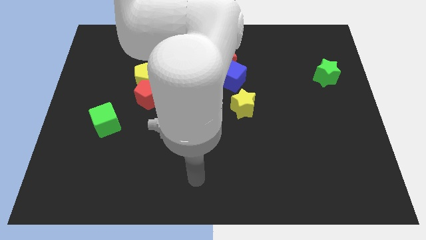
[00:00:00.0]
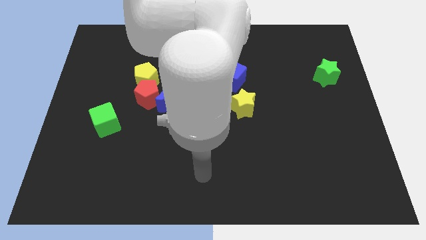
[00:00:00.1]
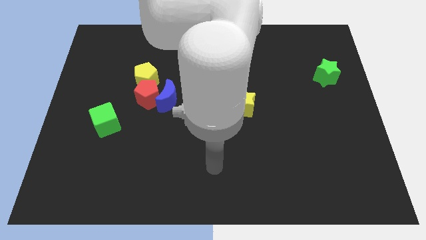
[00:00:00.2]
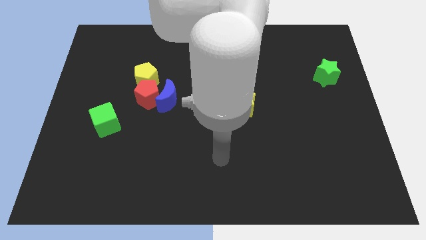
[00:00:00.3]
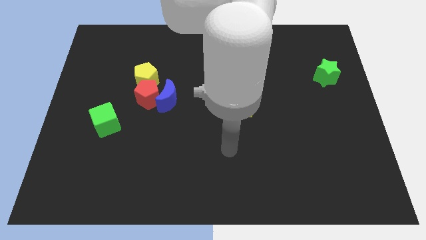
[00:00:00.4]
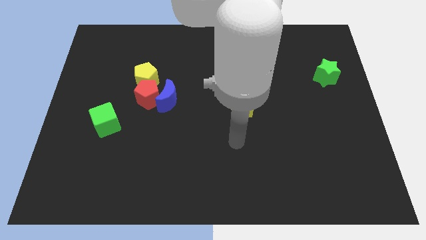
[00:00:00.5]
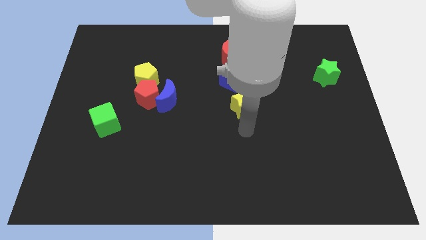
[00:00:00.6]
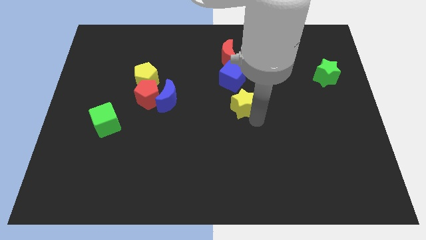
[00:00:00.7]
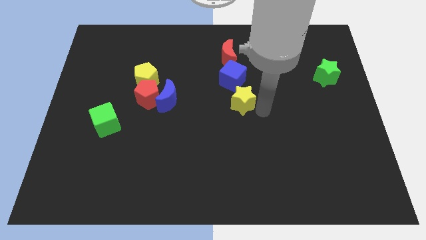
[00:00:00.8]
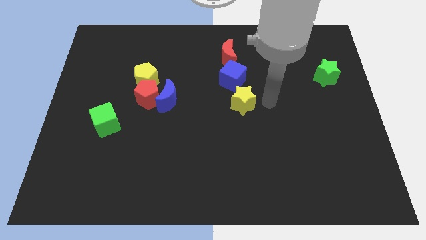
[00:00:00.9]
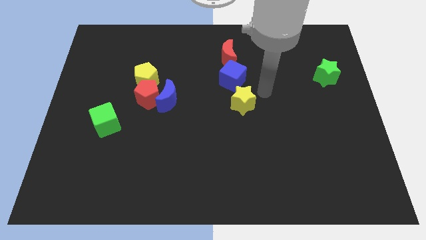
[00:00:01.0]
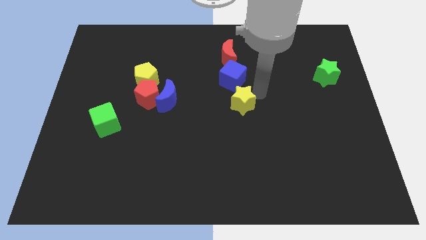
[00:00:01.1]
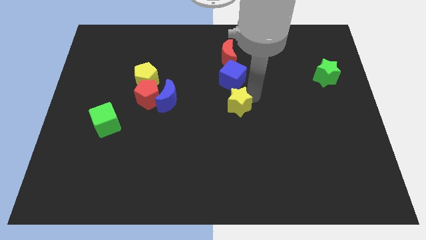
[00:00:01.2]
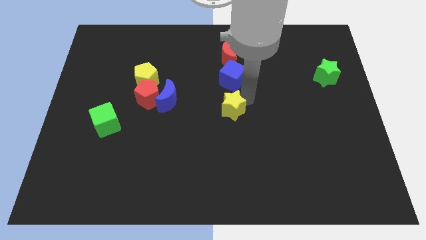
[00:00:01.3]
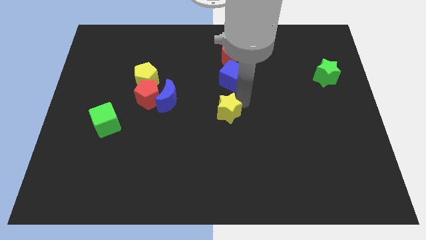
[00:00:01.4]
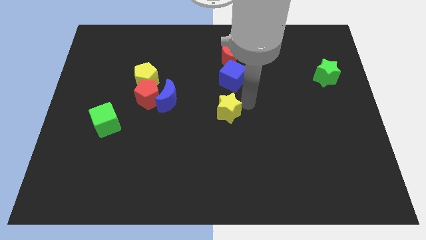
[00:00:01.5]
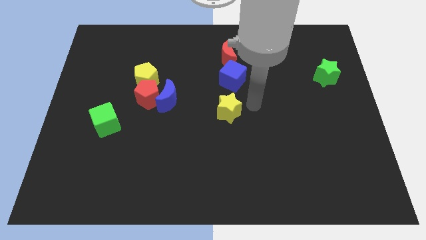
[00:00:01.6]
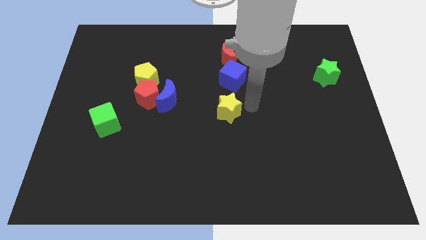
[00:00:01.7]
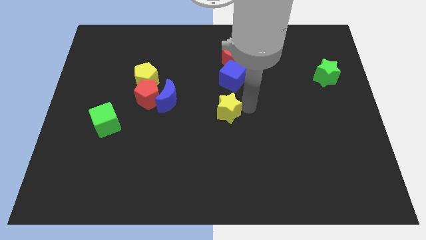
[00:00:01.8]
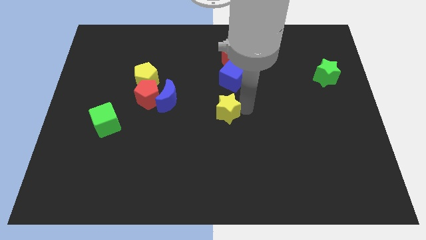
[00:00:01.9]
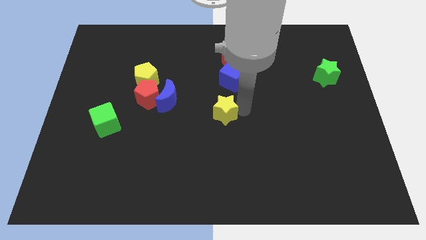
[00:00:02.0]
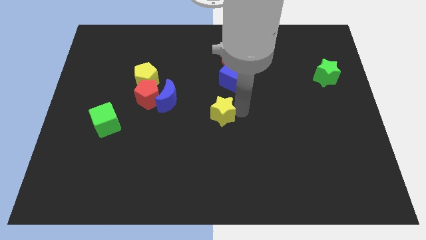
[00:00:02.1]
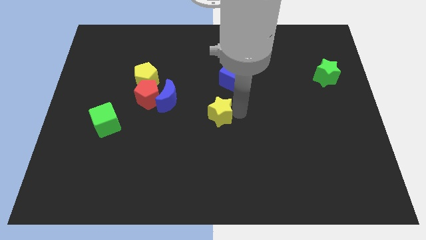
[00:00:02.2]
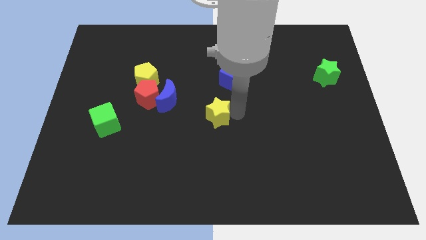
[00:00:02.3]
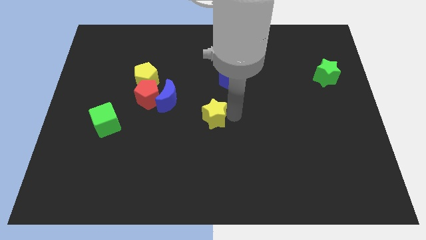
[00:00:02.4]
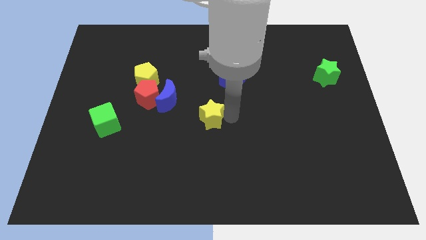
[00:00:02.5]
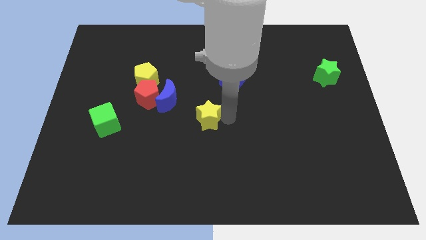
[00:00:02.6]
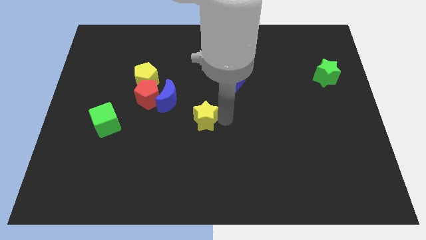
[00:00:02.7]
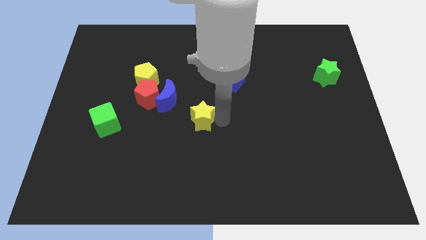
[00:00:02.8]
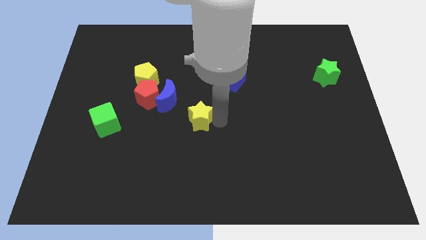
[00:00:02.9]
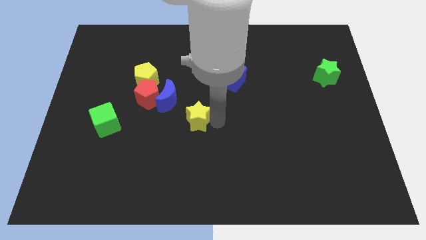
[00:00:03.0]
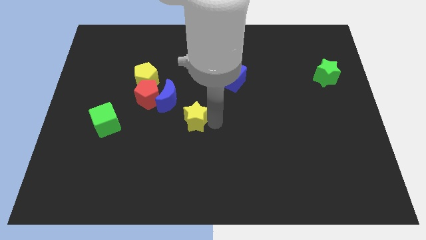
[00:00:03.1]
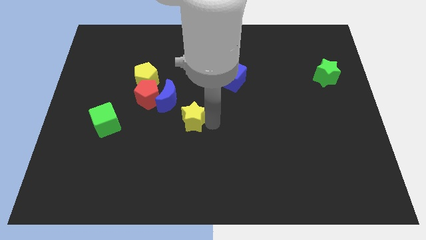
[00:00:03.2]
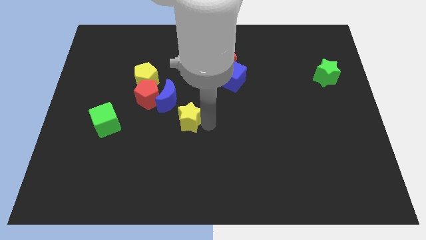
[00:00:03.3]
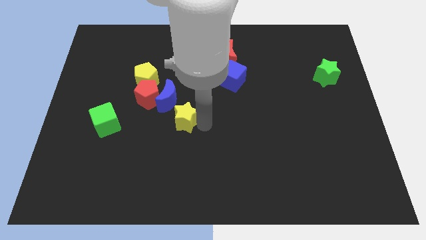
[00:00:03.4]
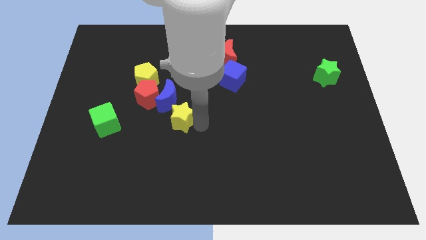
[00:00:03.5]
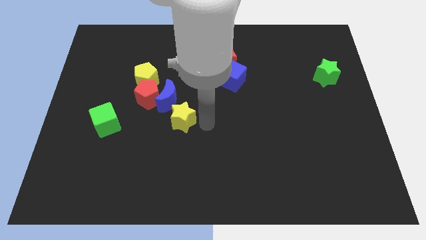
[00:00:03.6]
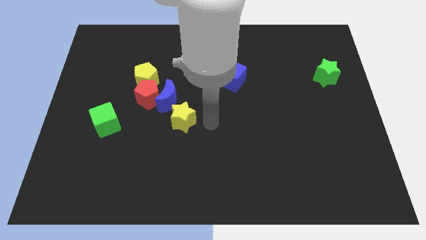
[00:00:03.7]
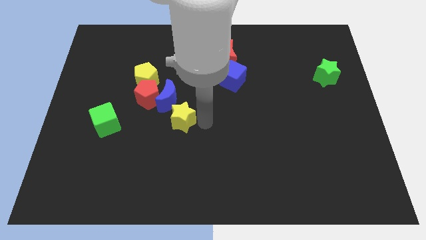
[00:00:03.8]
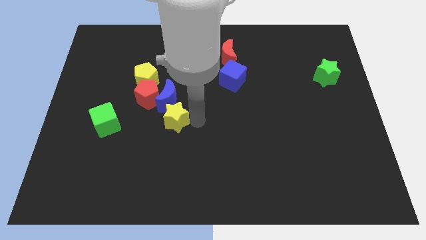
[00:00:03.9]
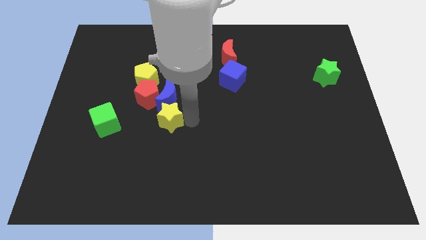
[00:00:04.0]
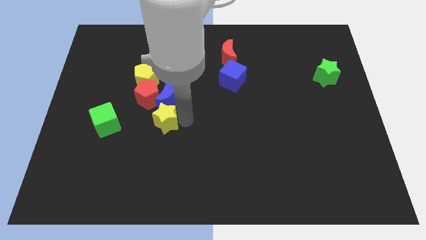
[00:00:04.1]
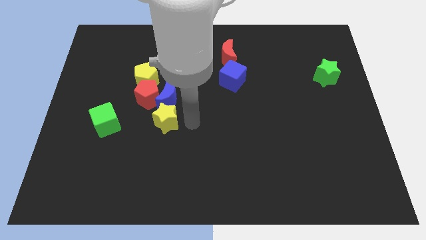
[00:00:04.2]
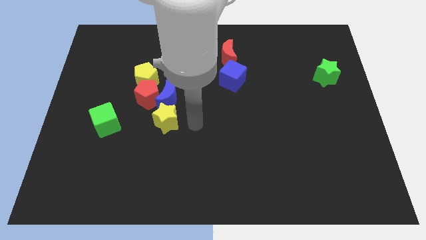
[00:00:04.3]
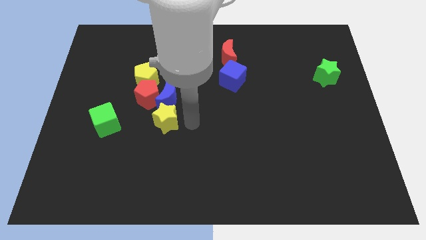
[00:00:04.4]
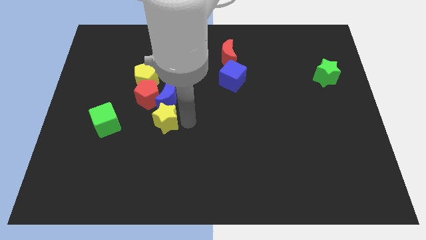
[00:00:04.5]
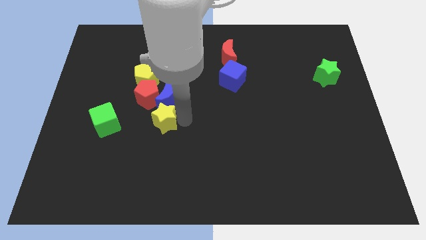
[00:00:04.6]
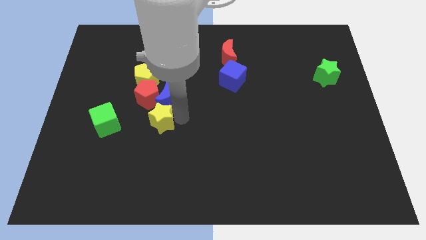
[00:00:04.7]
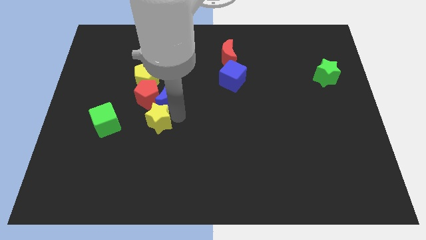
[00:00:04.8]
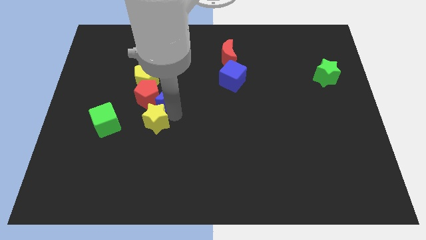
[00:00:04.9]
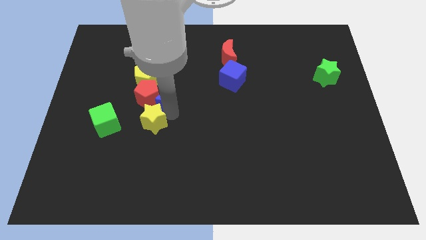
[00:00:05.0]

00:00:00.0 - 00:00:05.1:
move the yellow star left

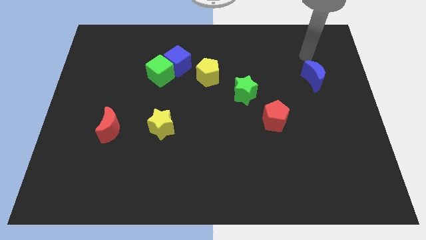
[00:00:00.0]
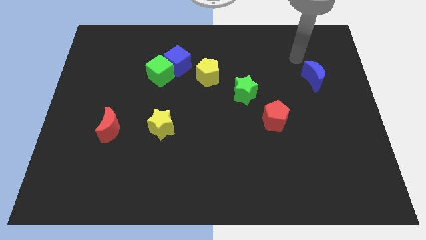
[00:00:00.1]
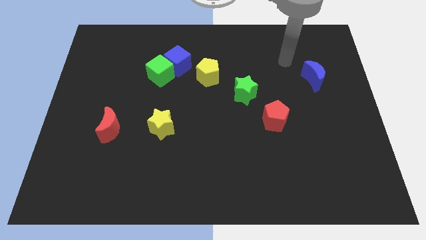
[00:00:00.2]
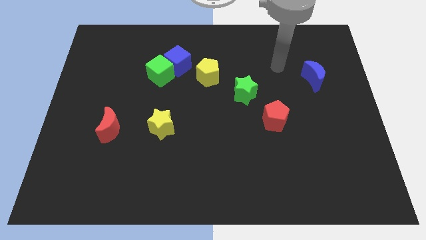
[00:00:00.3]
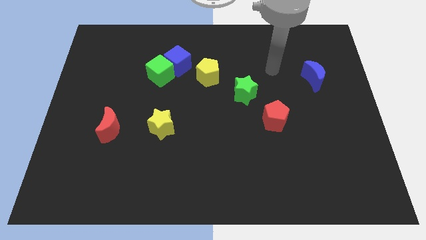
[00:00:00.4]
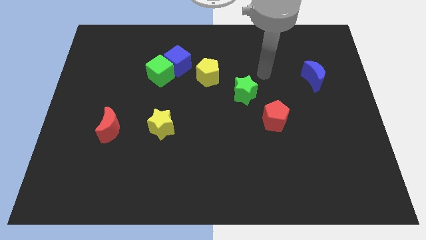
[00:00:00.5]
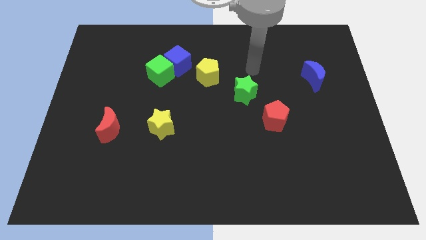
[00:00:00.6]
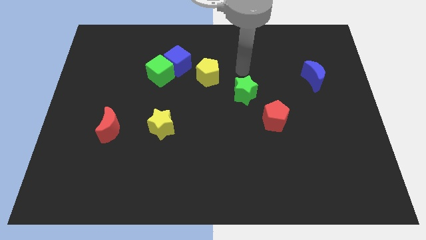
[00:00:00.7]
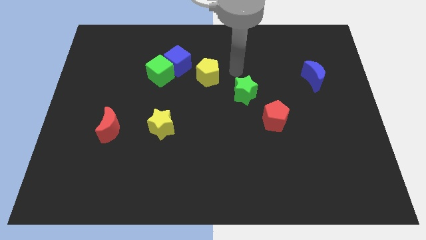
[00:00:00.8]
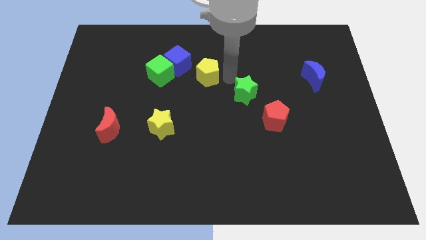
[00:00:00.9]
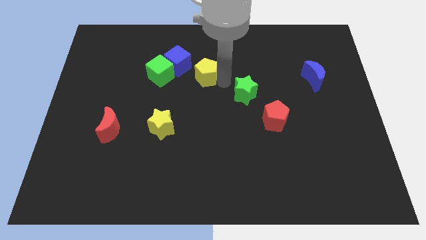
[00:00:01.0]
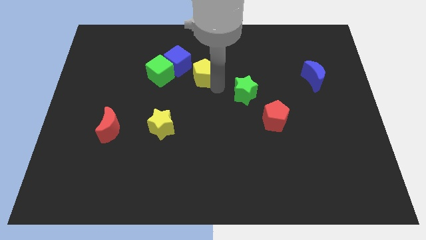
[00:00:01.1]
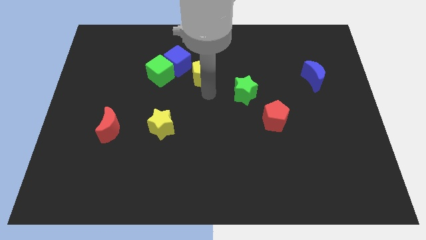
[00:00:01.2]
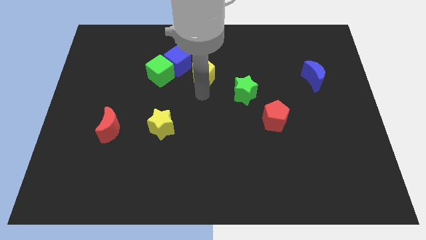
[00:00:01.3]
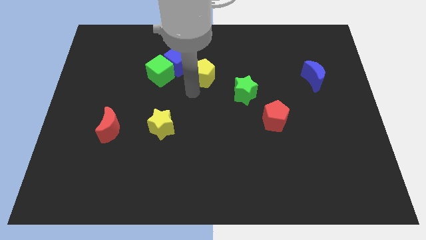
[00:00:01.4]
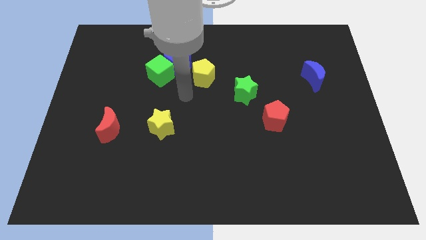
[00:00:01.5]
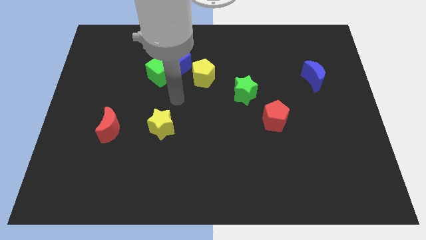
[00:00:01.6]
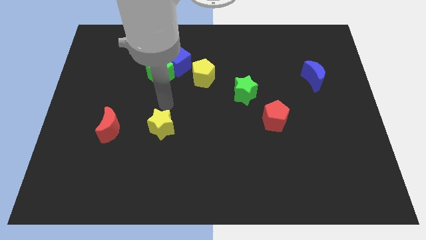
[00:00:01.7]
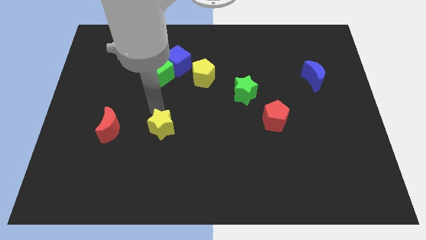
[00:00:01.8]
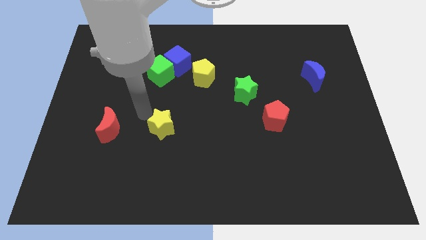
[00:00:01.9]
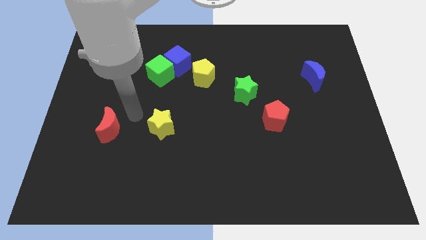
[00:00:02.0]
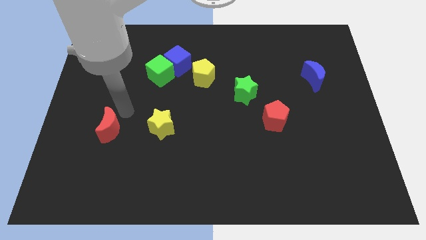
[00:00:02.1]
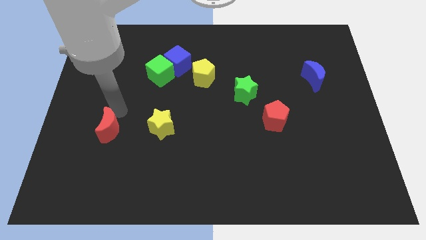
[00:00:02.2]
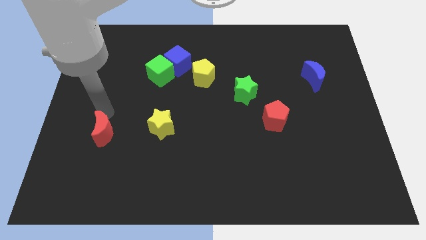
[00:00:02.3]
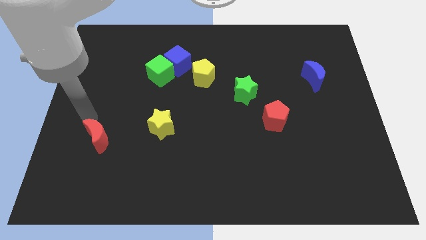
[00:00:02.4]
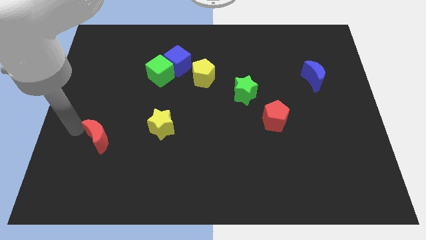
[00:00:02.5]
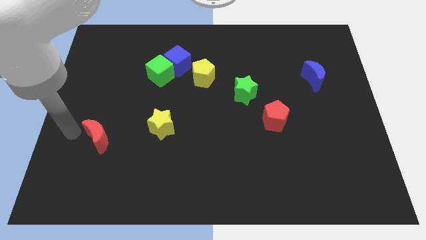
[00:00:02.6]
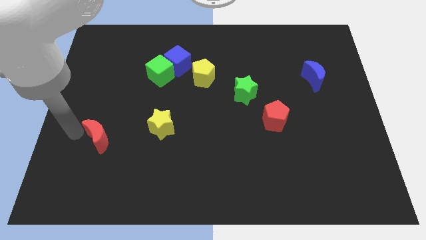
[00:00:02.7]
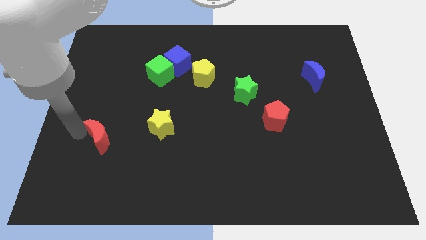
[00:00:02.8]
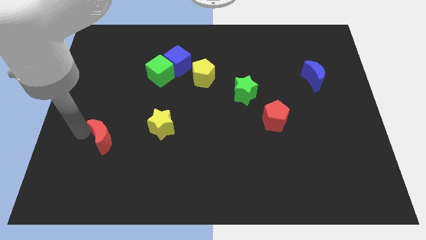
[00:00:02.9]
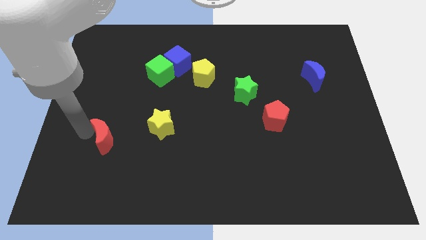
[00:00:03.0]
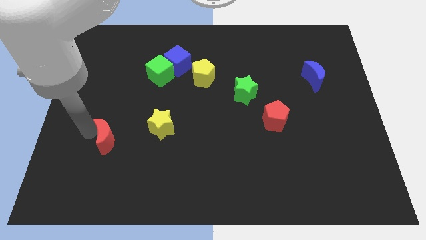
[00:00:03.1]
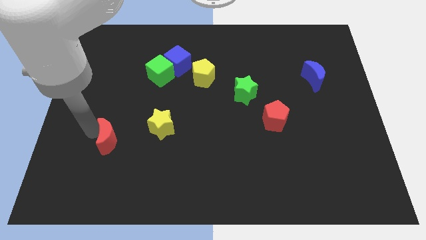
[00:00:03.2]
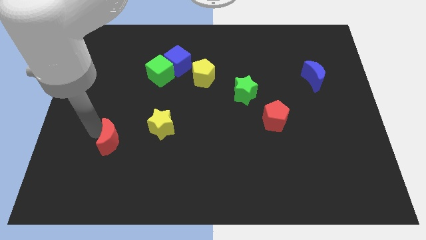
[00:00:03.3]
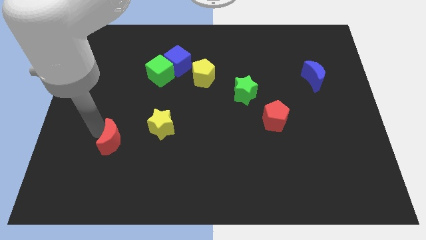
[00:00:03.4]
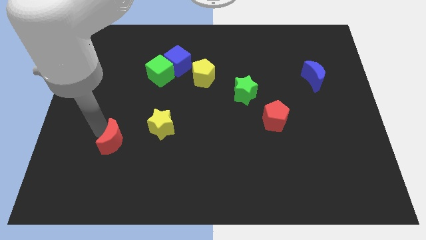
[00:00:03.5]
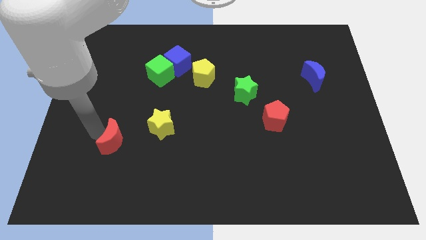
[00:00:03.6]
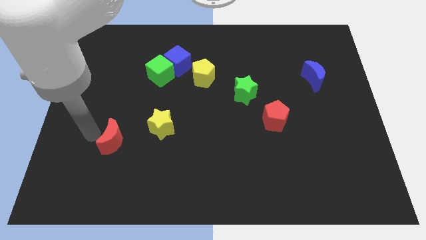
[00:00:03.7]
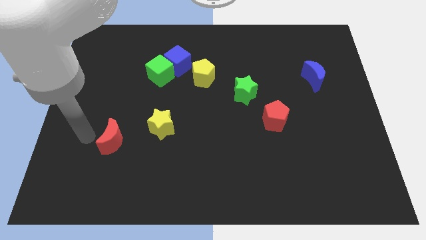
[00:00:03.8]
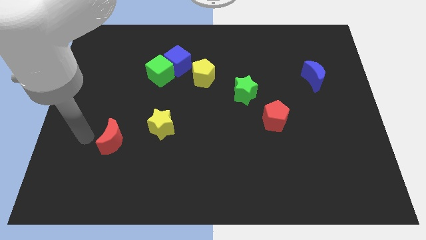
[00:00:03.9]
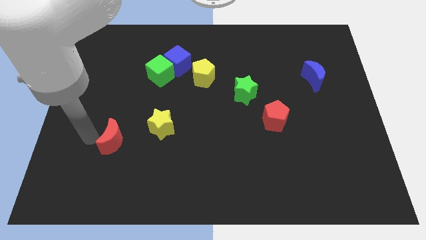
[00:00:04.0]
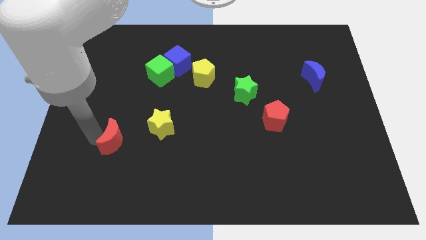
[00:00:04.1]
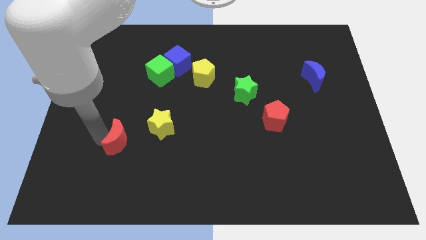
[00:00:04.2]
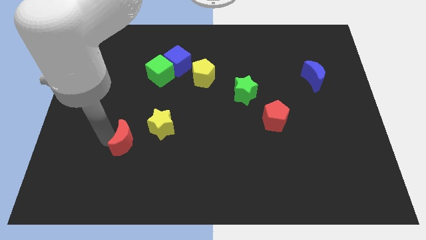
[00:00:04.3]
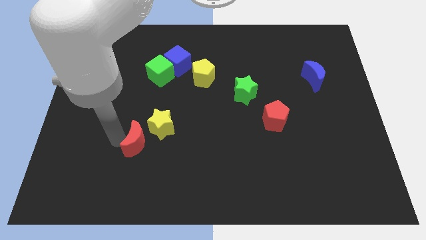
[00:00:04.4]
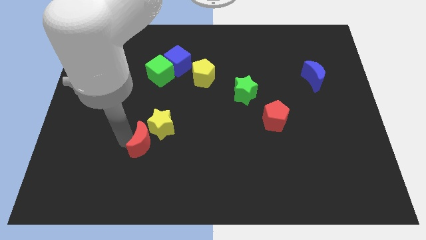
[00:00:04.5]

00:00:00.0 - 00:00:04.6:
move the red moon right a bit
